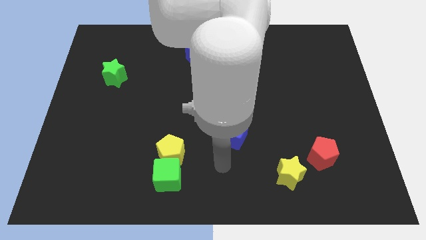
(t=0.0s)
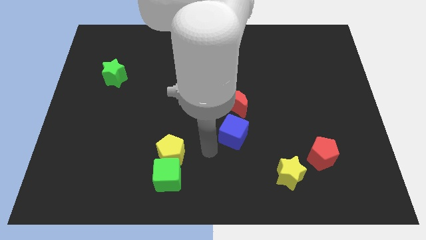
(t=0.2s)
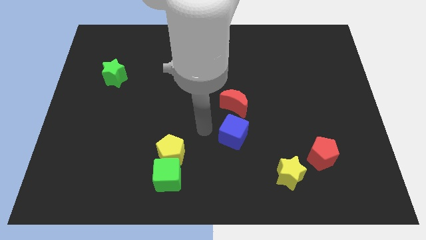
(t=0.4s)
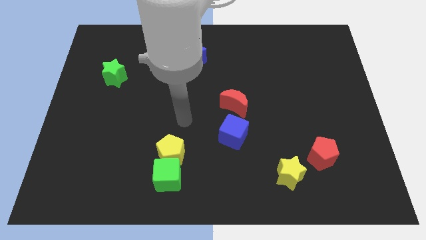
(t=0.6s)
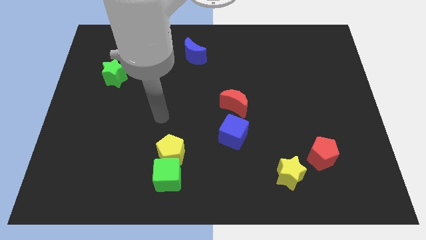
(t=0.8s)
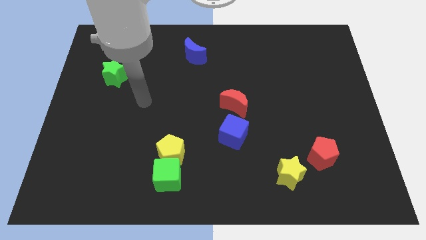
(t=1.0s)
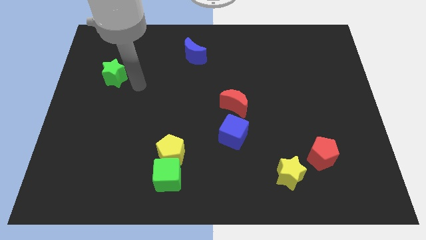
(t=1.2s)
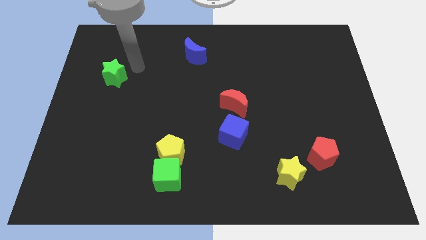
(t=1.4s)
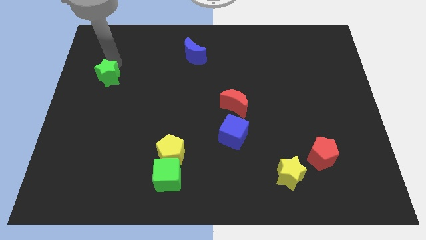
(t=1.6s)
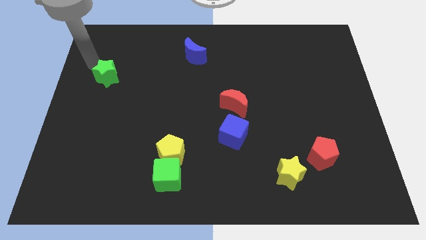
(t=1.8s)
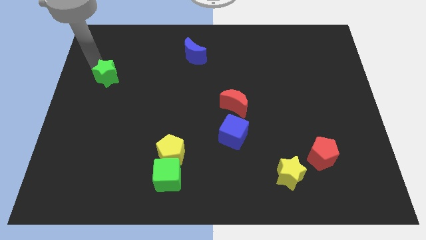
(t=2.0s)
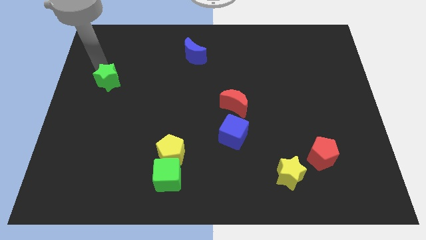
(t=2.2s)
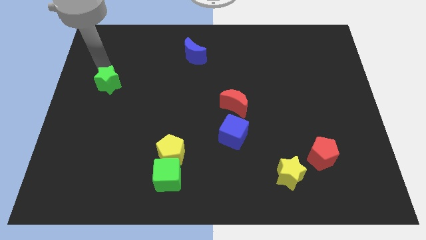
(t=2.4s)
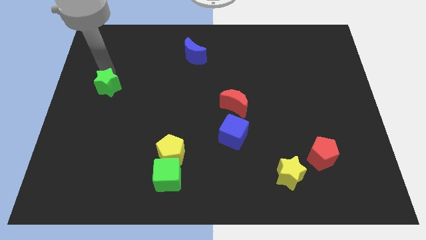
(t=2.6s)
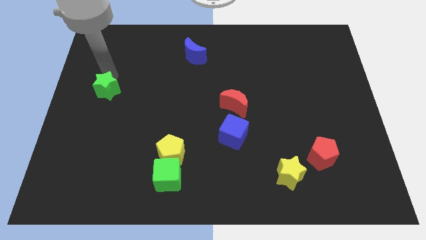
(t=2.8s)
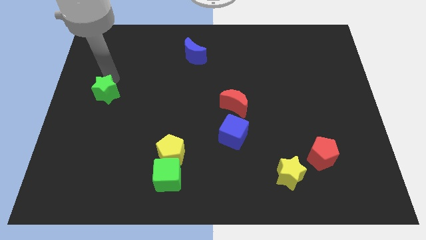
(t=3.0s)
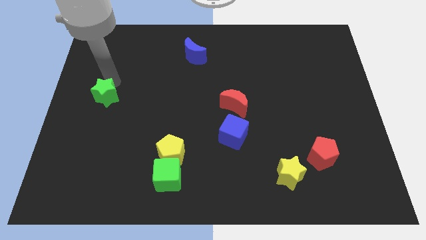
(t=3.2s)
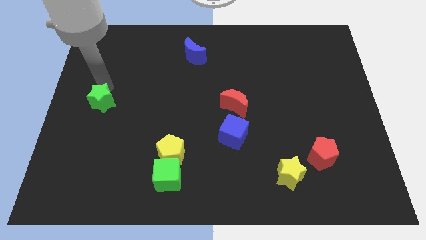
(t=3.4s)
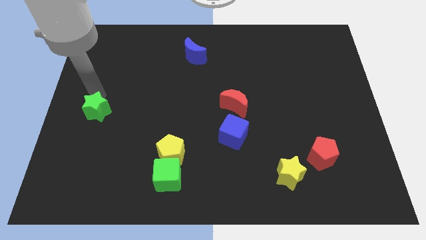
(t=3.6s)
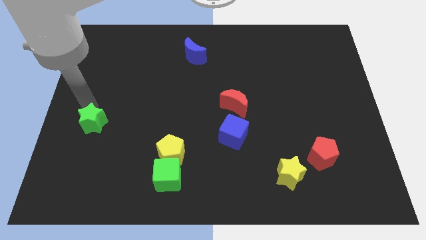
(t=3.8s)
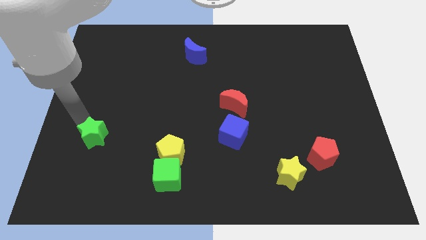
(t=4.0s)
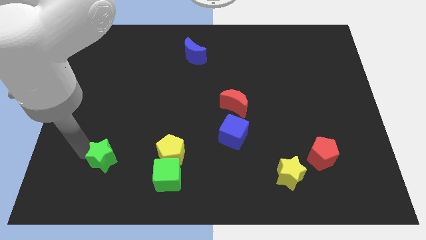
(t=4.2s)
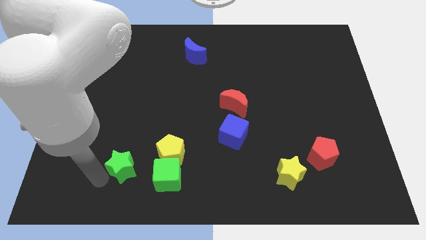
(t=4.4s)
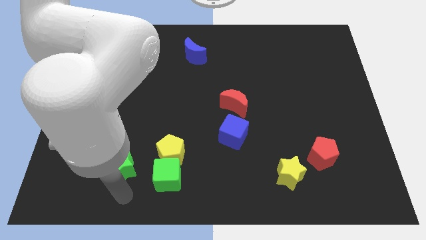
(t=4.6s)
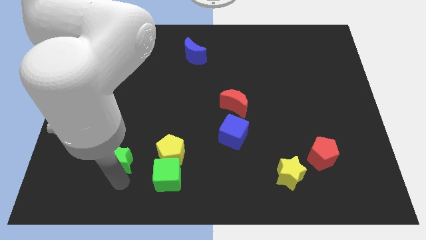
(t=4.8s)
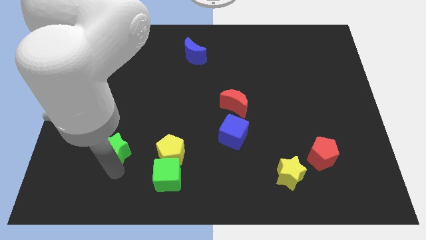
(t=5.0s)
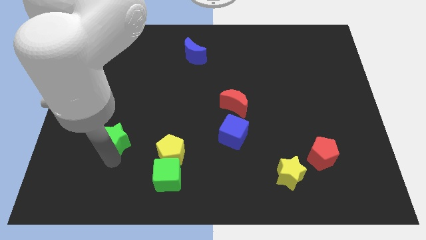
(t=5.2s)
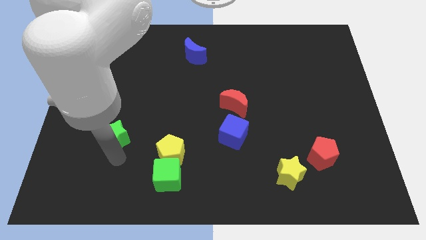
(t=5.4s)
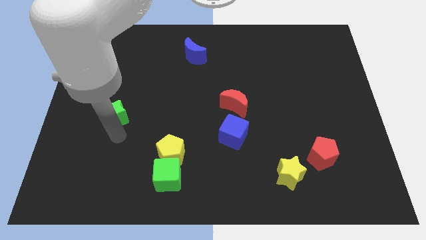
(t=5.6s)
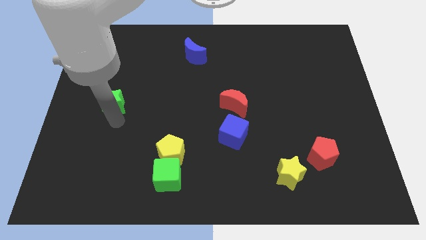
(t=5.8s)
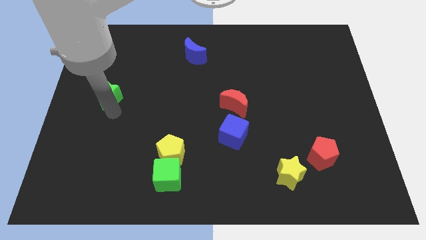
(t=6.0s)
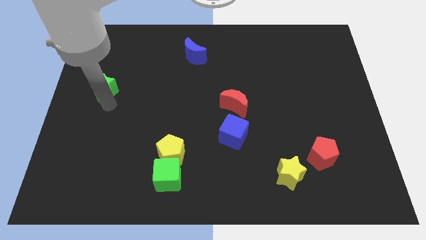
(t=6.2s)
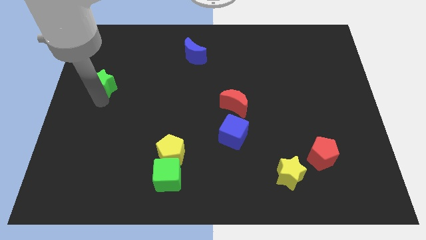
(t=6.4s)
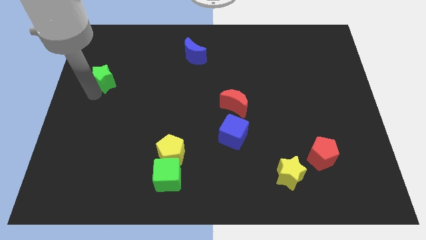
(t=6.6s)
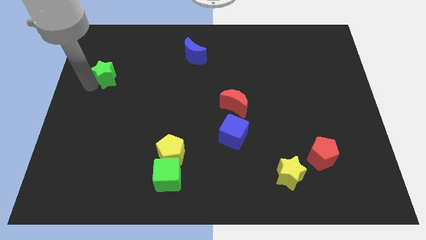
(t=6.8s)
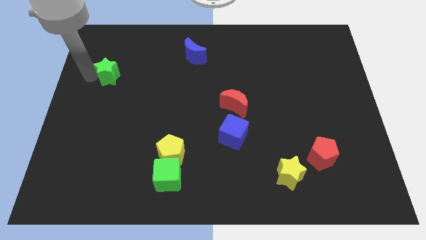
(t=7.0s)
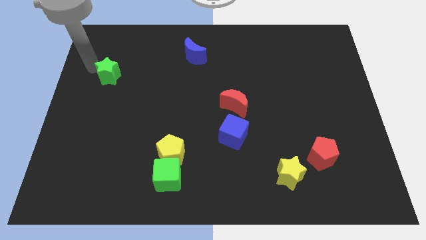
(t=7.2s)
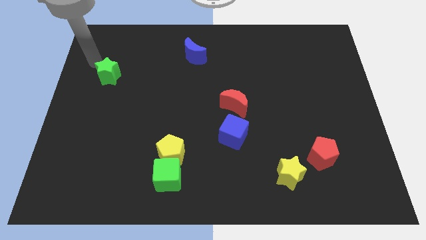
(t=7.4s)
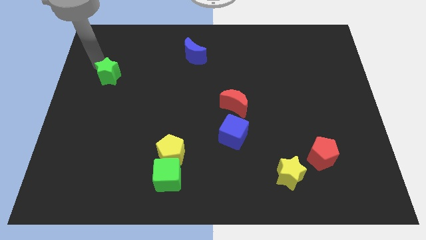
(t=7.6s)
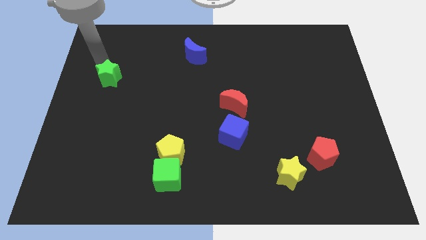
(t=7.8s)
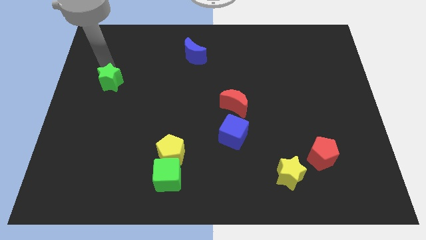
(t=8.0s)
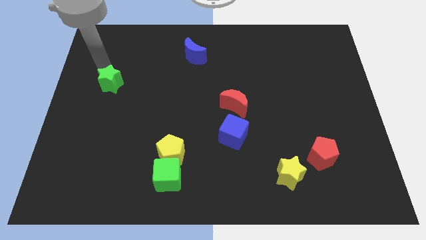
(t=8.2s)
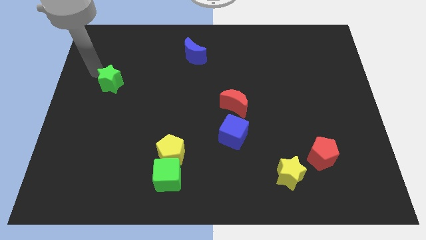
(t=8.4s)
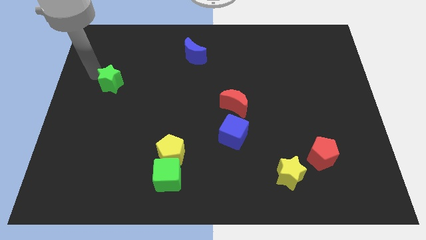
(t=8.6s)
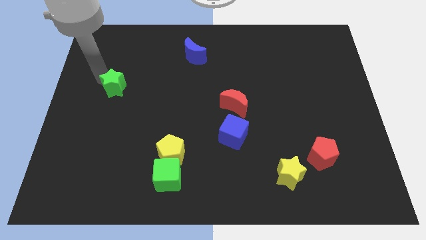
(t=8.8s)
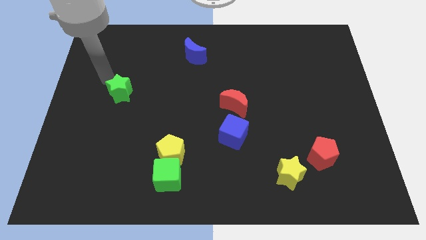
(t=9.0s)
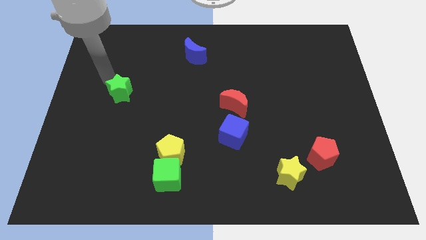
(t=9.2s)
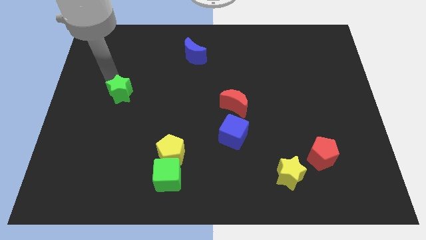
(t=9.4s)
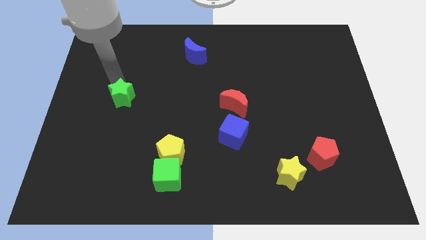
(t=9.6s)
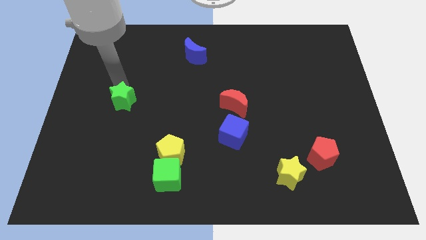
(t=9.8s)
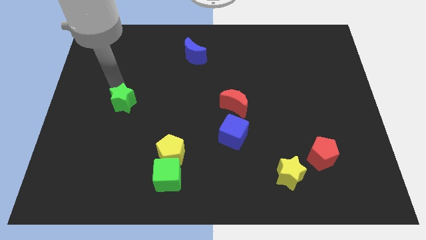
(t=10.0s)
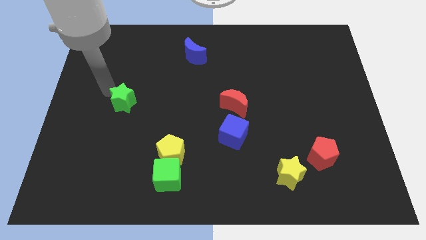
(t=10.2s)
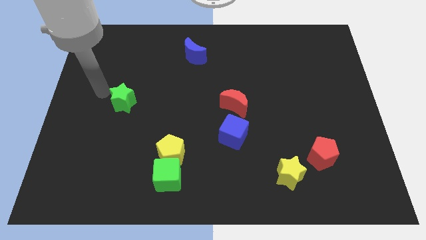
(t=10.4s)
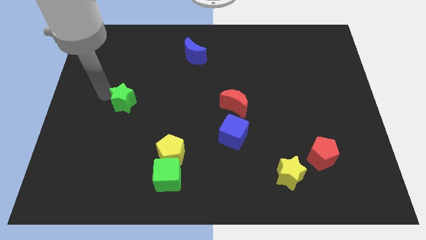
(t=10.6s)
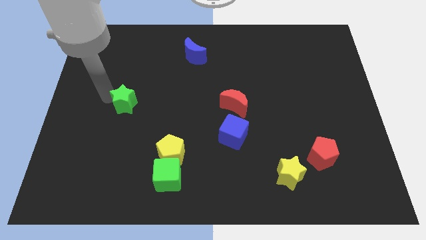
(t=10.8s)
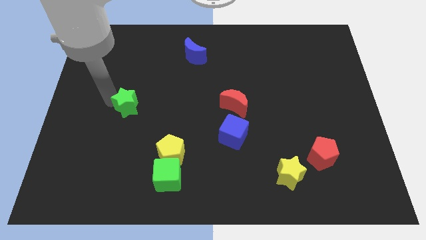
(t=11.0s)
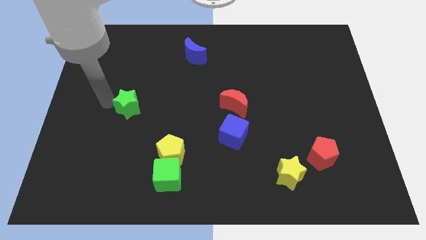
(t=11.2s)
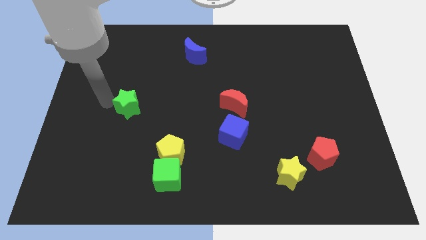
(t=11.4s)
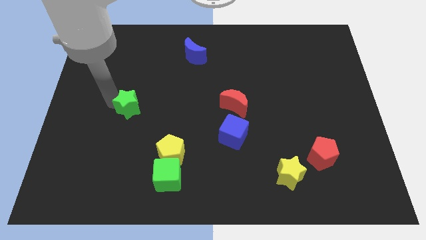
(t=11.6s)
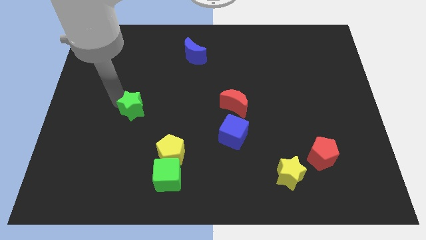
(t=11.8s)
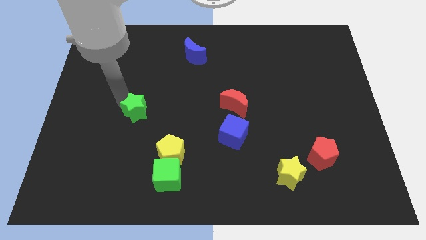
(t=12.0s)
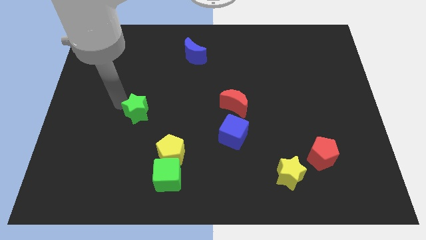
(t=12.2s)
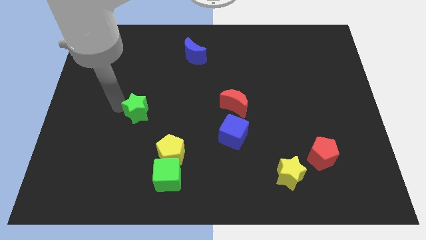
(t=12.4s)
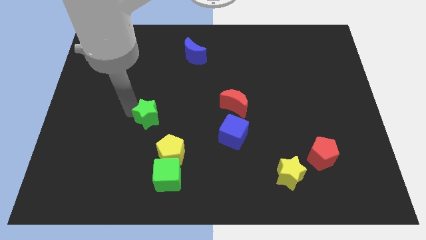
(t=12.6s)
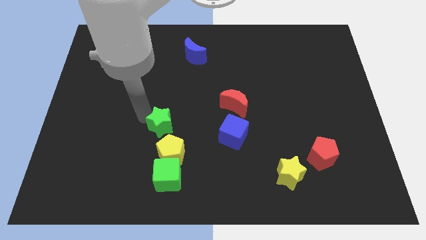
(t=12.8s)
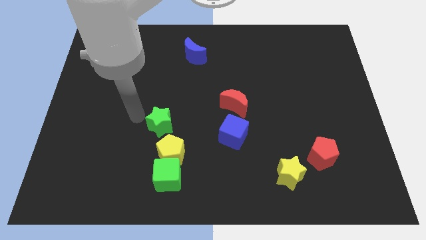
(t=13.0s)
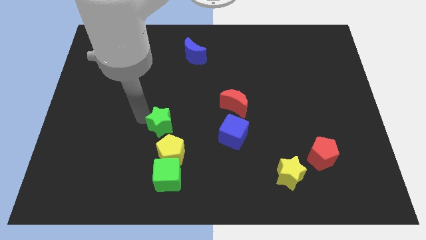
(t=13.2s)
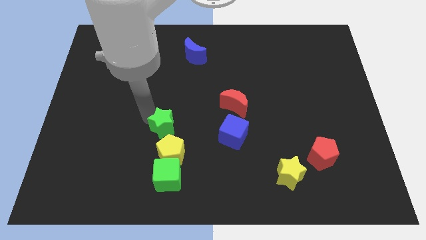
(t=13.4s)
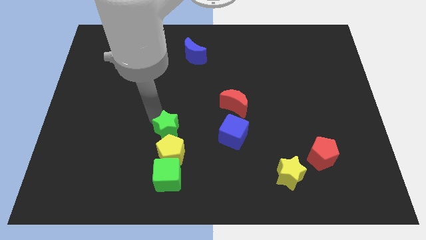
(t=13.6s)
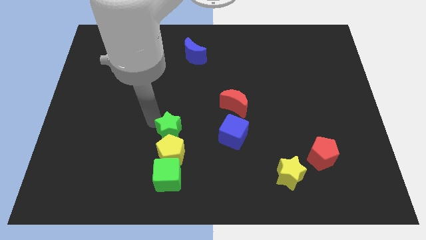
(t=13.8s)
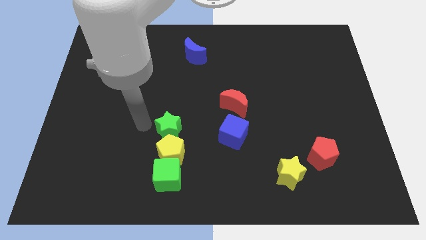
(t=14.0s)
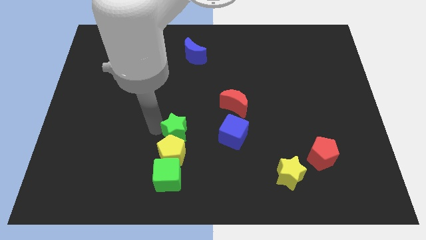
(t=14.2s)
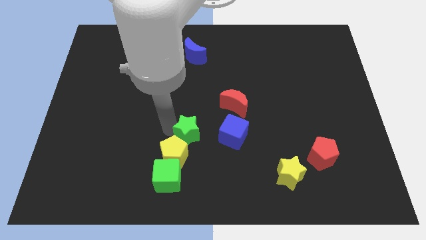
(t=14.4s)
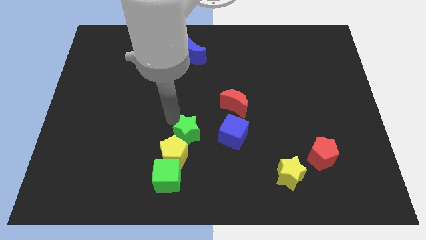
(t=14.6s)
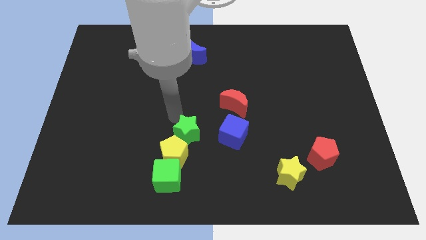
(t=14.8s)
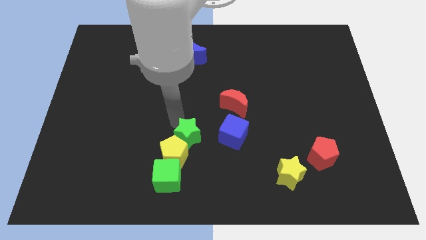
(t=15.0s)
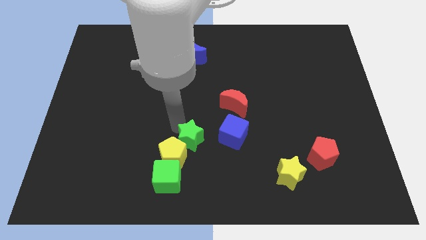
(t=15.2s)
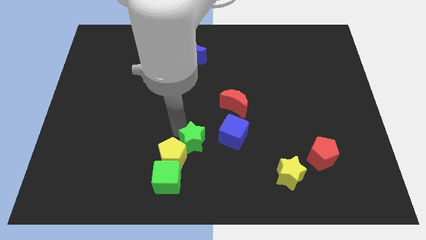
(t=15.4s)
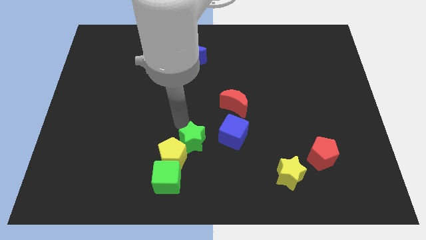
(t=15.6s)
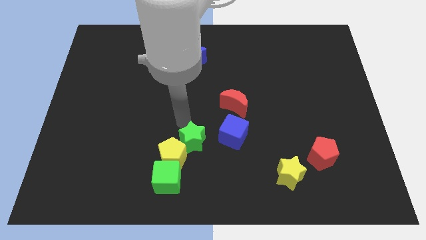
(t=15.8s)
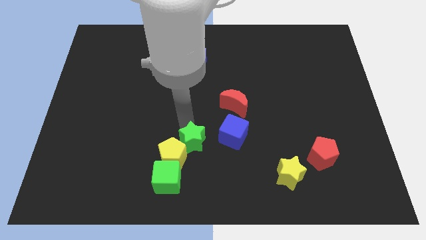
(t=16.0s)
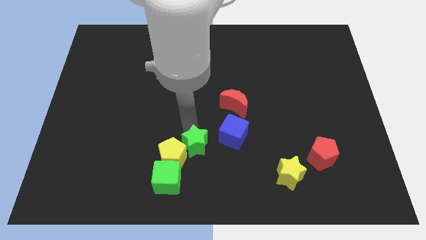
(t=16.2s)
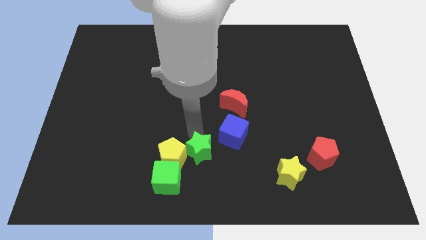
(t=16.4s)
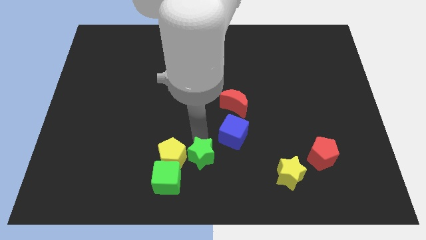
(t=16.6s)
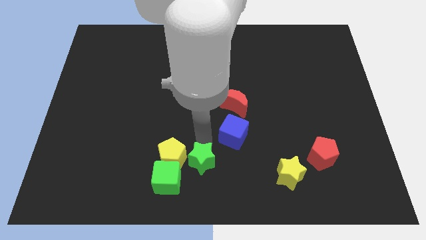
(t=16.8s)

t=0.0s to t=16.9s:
push the green star to the right of the green cube
